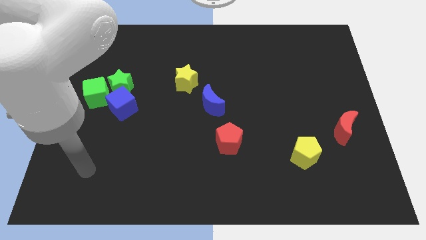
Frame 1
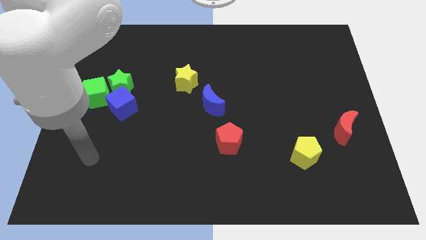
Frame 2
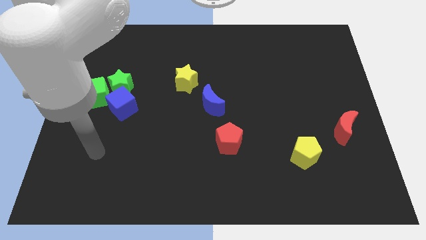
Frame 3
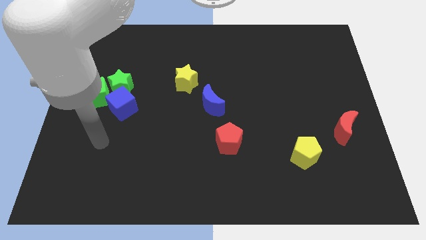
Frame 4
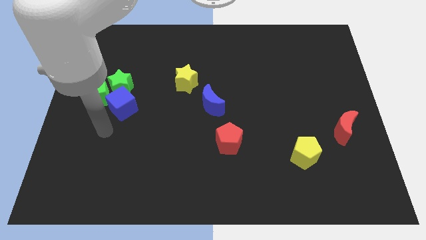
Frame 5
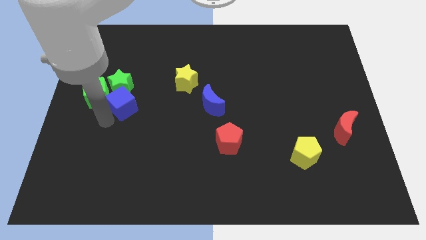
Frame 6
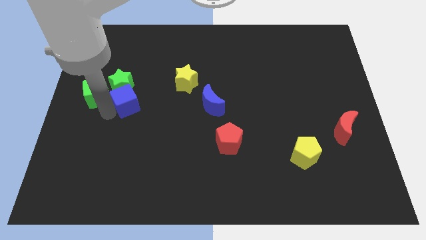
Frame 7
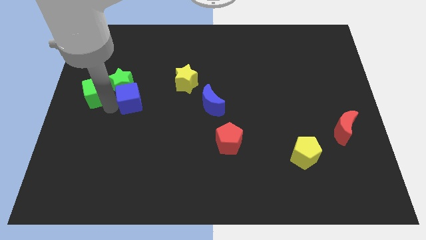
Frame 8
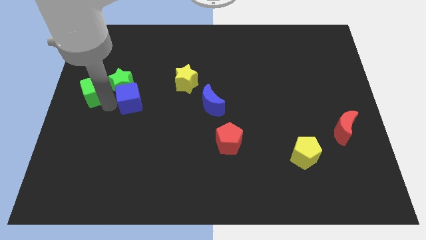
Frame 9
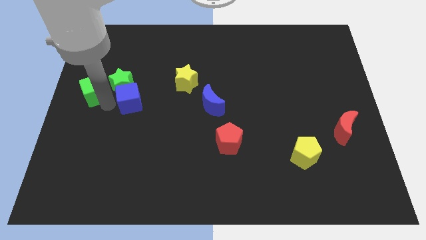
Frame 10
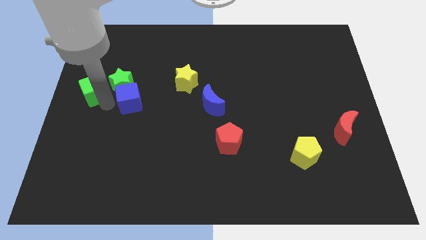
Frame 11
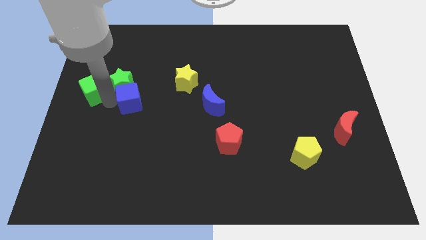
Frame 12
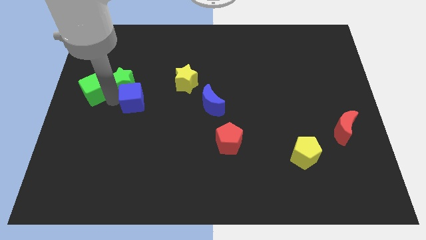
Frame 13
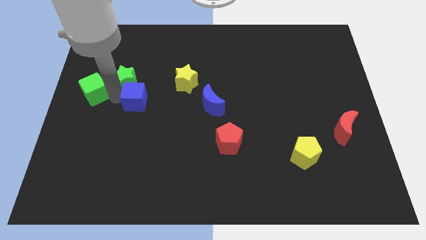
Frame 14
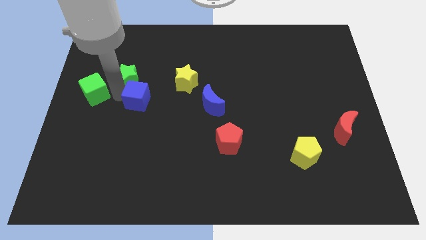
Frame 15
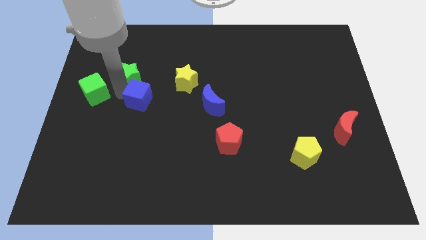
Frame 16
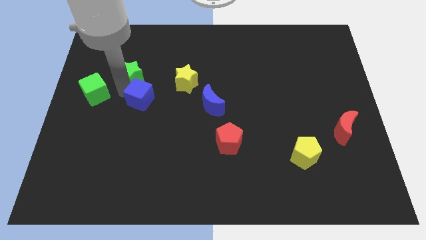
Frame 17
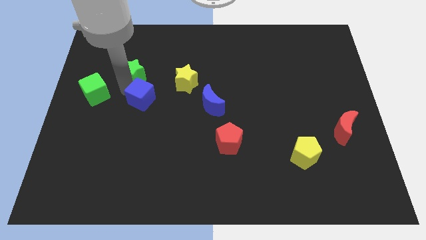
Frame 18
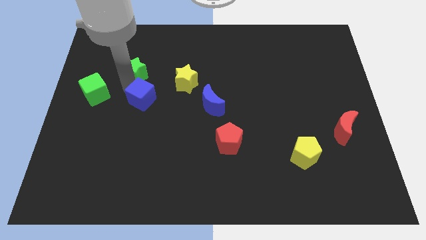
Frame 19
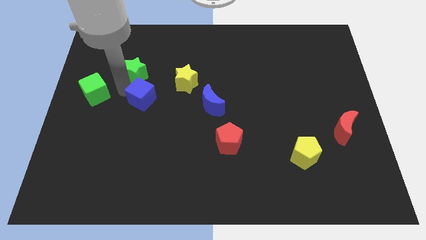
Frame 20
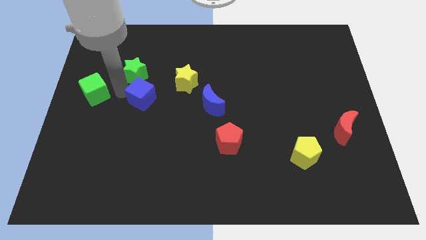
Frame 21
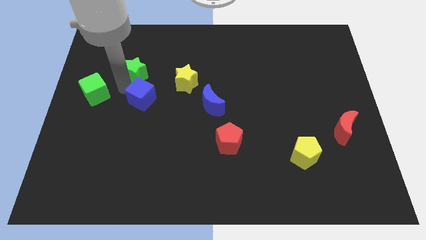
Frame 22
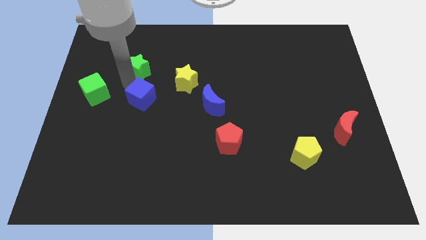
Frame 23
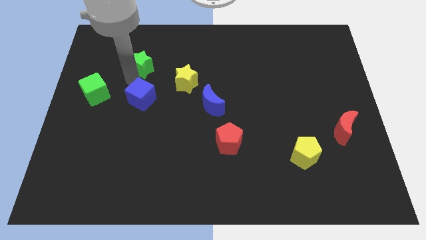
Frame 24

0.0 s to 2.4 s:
move the green star away from the blue cube and green cube

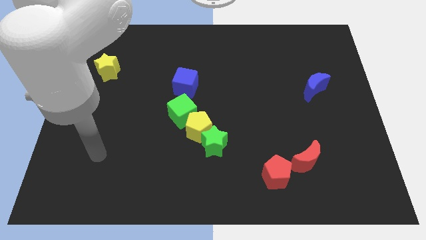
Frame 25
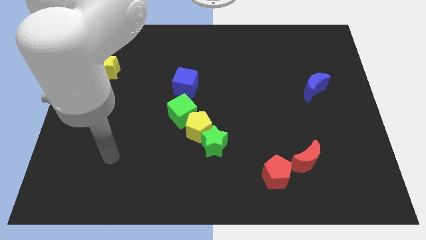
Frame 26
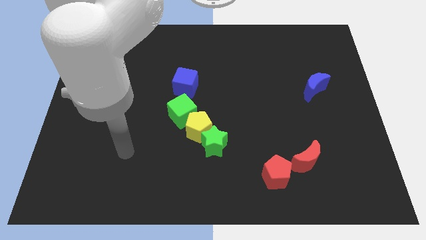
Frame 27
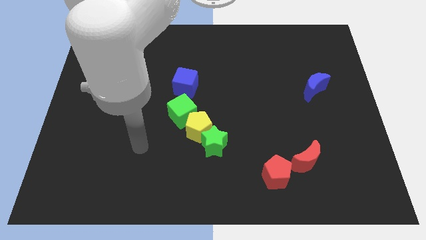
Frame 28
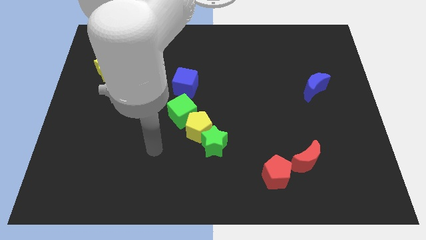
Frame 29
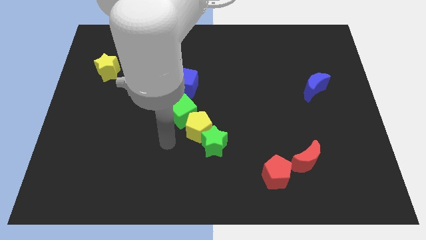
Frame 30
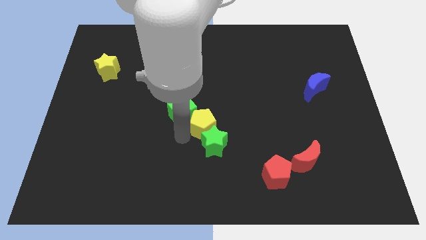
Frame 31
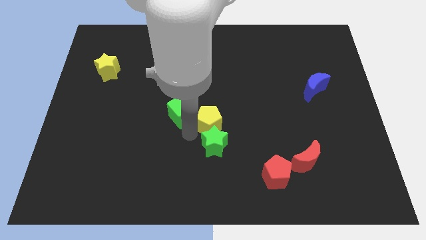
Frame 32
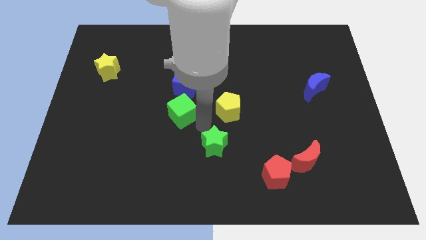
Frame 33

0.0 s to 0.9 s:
separate the green star from the yellow pentagon

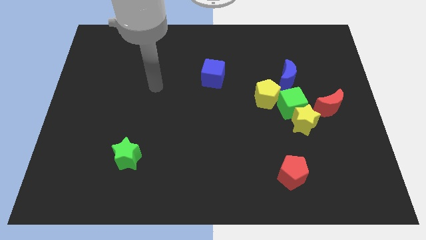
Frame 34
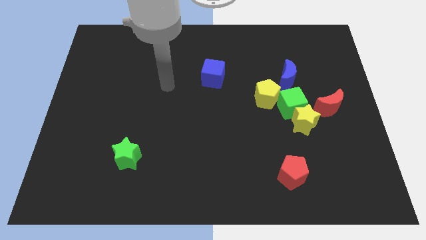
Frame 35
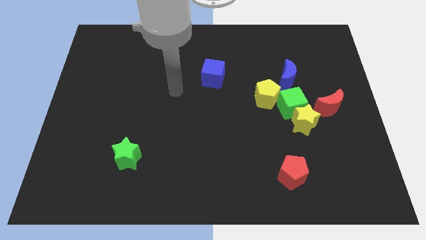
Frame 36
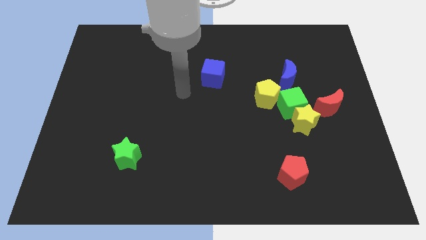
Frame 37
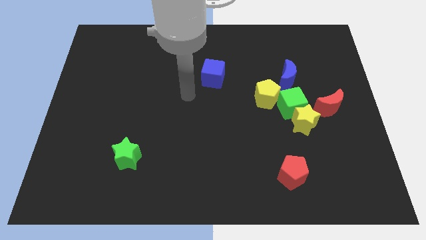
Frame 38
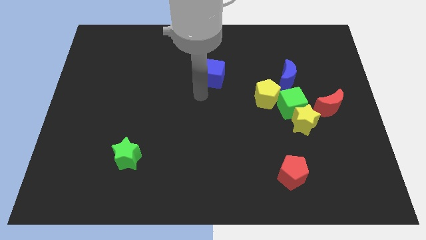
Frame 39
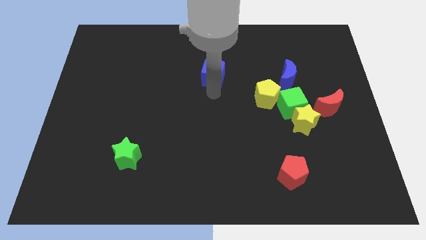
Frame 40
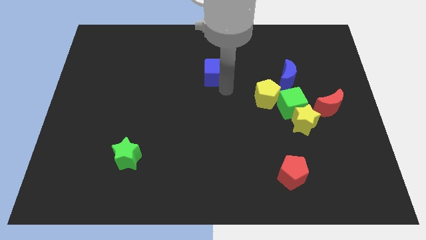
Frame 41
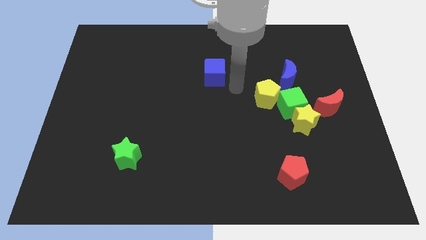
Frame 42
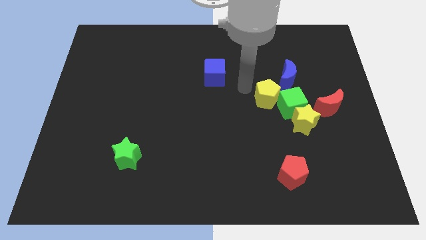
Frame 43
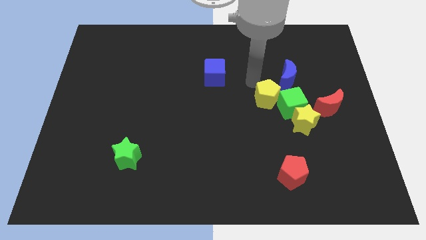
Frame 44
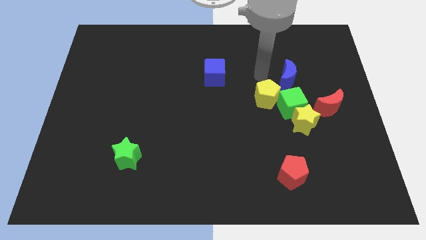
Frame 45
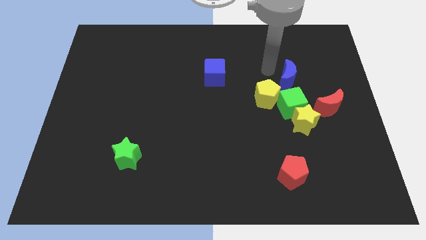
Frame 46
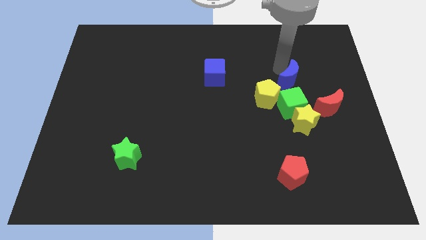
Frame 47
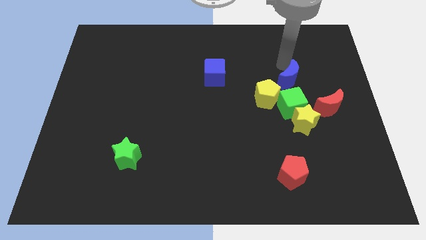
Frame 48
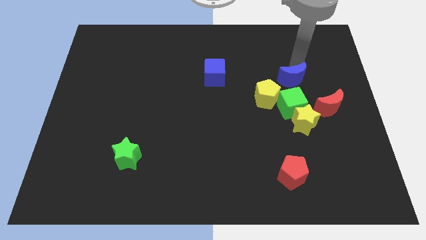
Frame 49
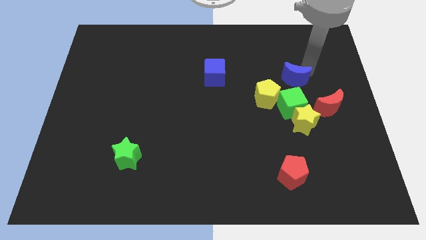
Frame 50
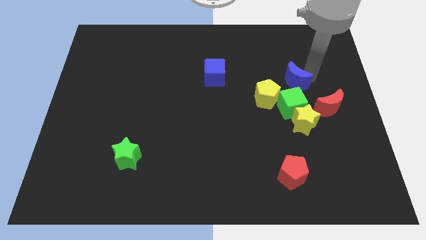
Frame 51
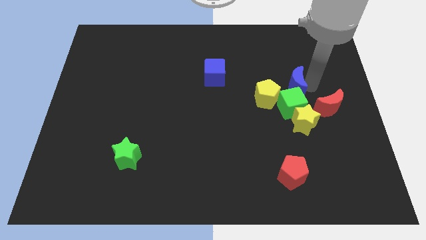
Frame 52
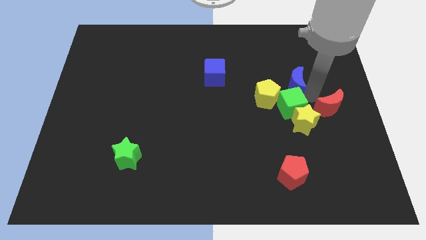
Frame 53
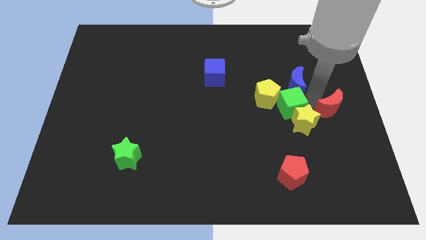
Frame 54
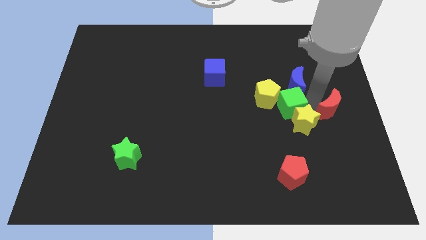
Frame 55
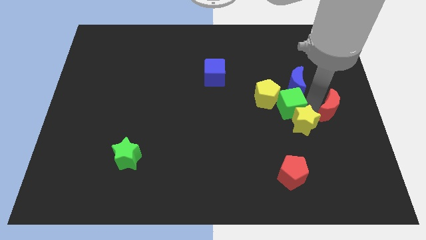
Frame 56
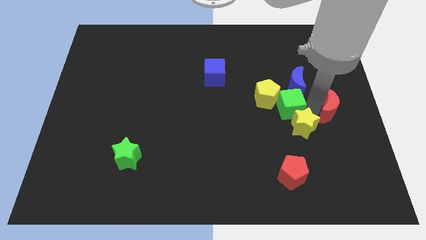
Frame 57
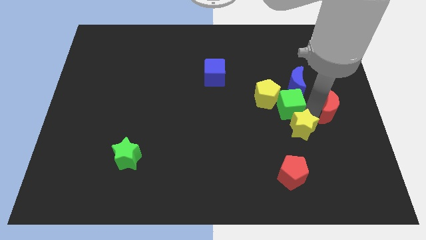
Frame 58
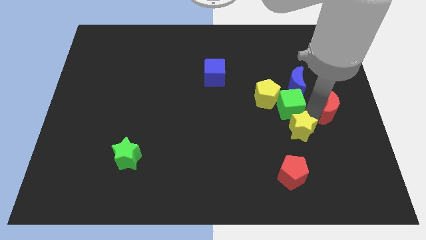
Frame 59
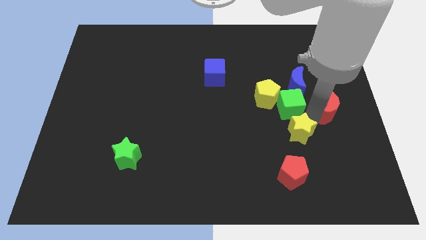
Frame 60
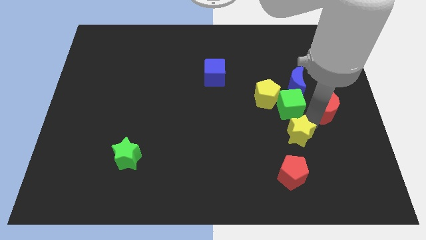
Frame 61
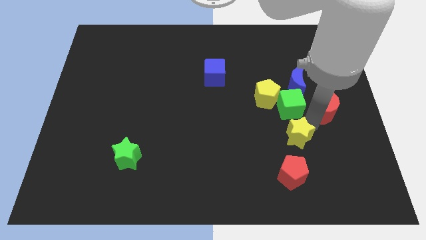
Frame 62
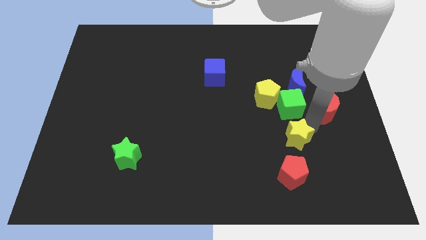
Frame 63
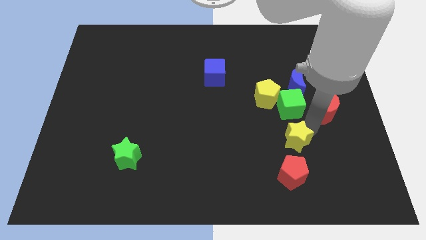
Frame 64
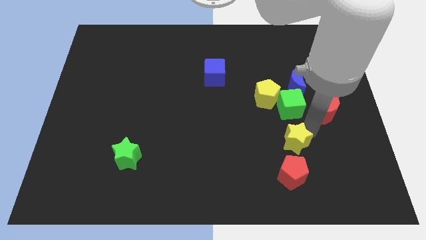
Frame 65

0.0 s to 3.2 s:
separate the yellow star from the green cube and red moon

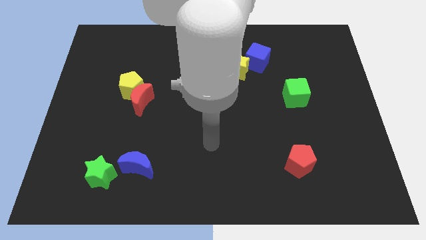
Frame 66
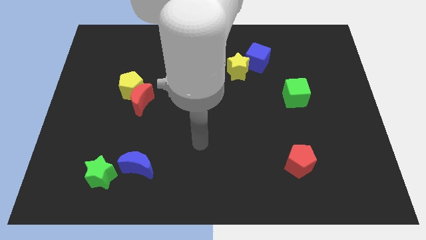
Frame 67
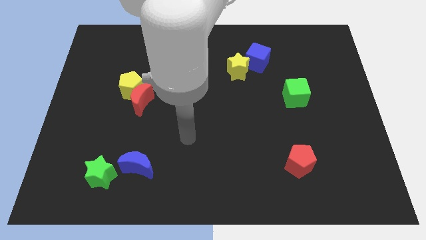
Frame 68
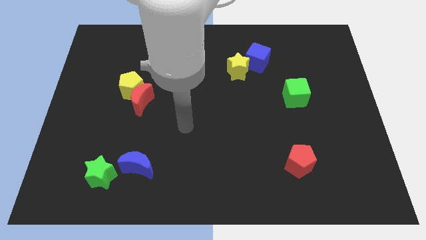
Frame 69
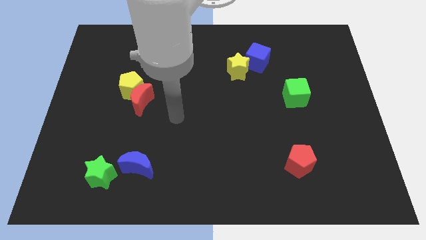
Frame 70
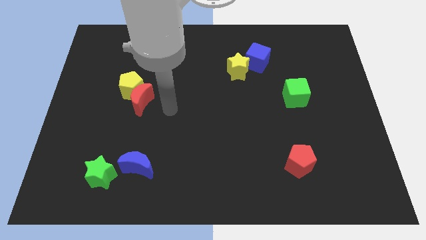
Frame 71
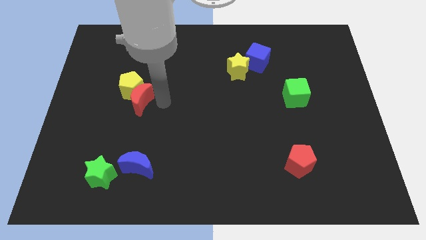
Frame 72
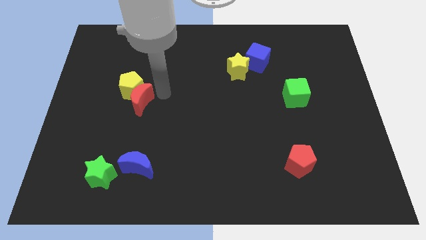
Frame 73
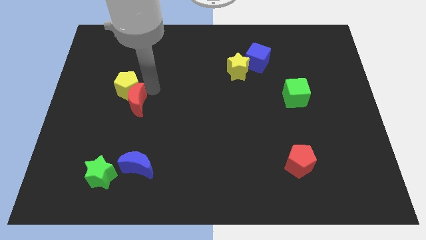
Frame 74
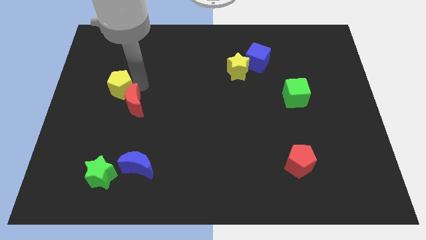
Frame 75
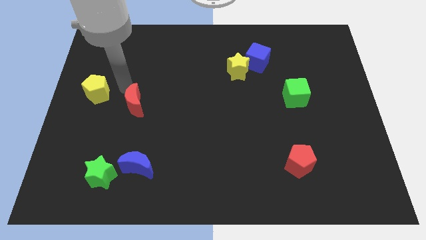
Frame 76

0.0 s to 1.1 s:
move the red moon away from the yellow pentagon

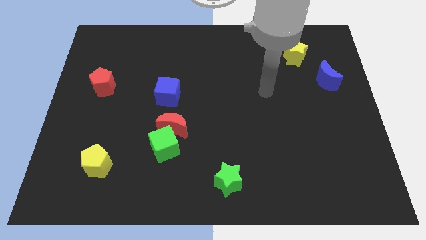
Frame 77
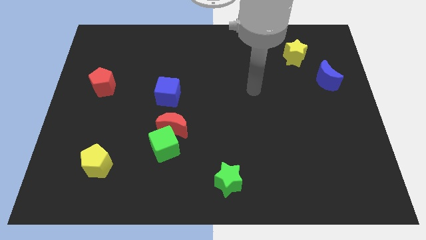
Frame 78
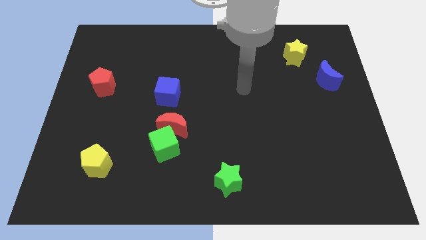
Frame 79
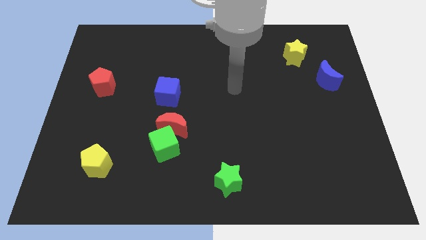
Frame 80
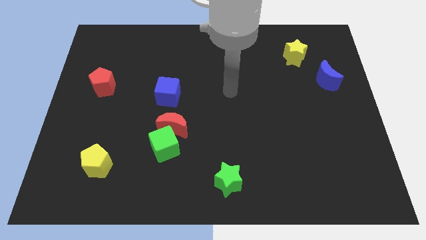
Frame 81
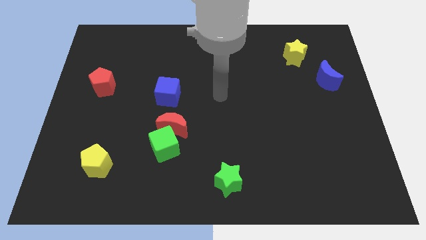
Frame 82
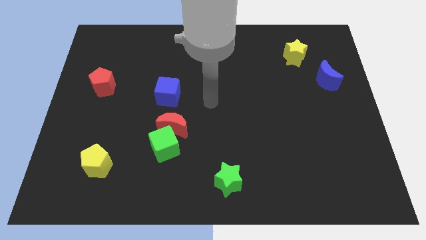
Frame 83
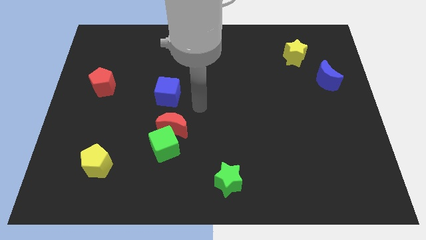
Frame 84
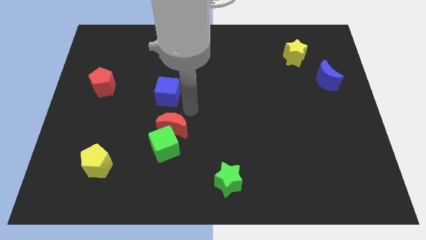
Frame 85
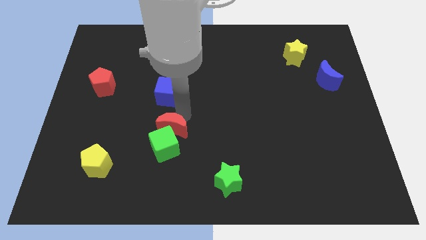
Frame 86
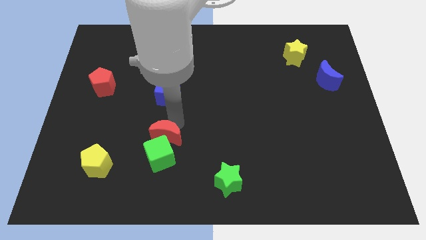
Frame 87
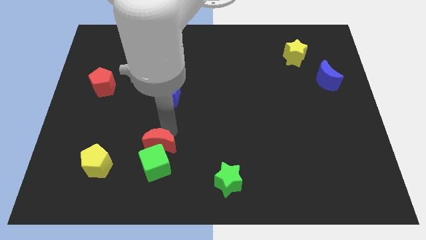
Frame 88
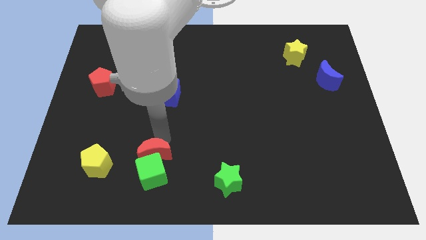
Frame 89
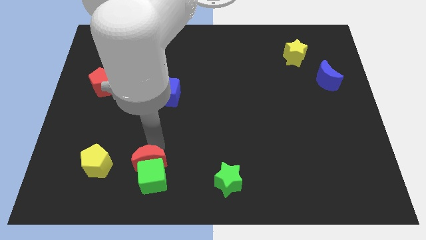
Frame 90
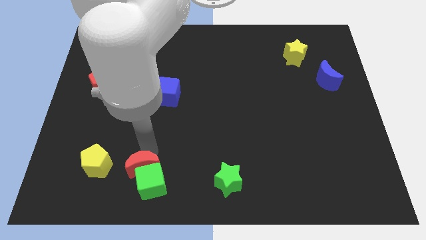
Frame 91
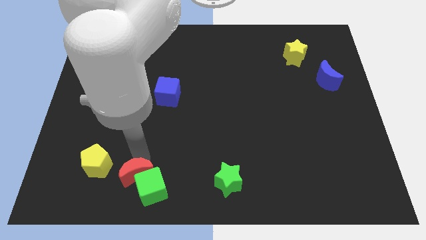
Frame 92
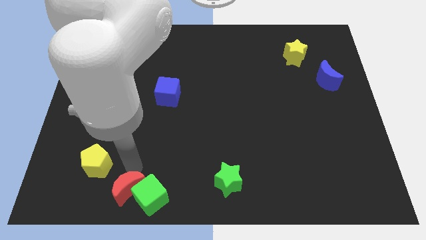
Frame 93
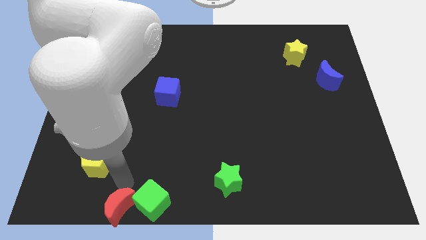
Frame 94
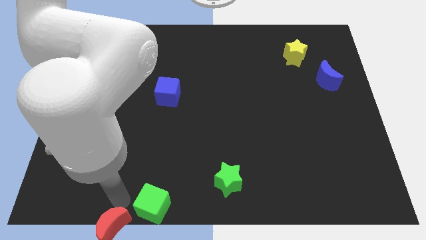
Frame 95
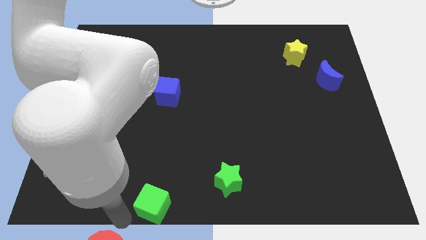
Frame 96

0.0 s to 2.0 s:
move the green cube away from the red moon
